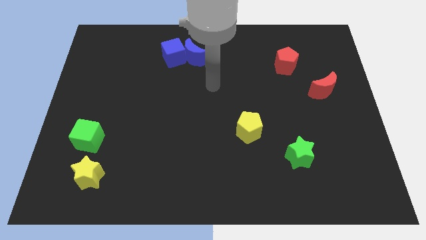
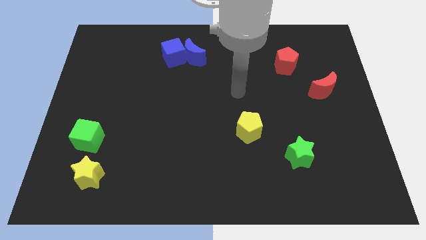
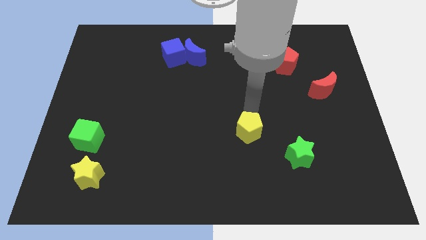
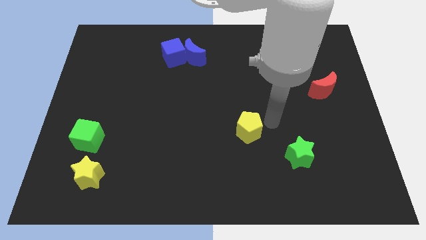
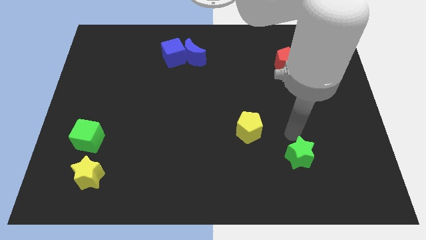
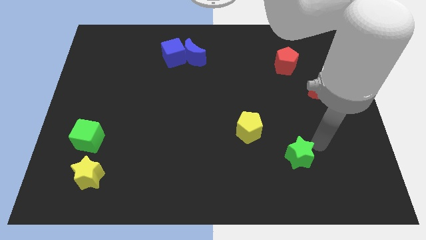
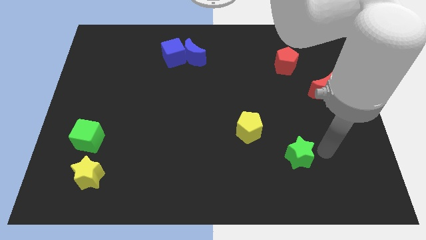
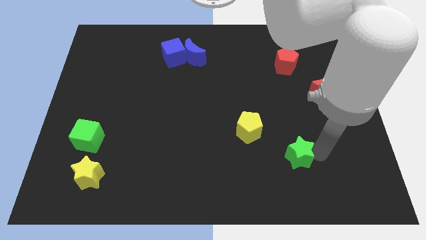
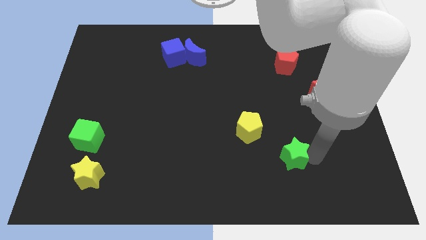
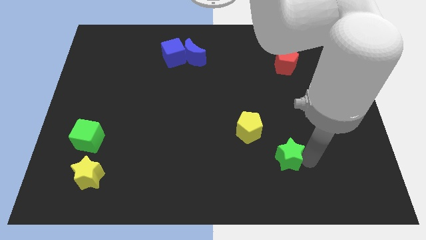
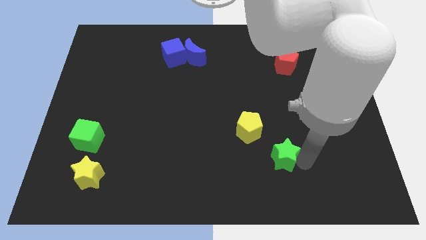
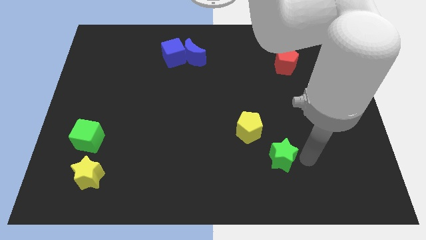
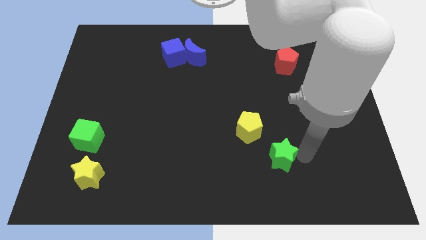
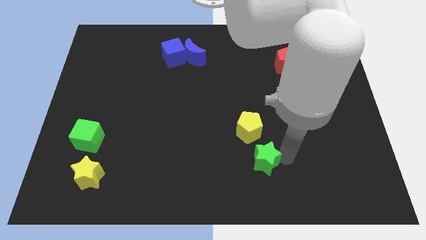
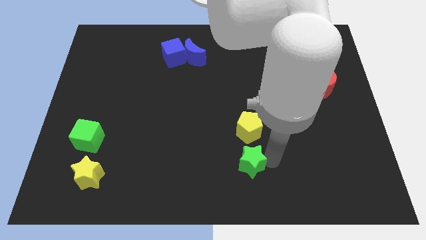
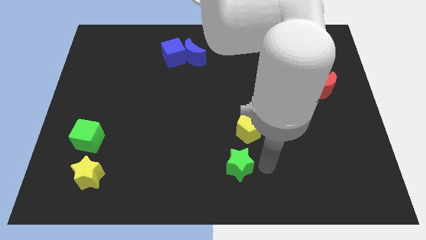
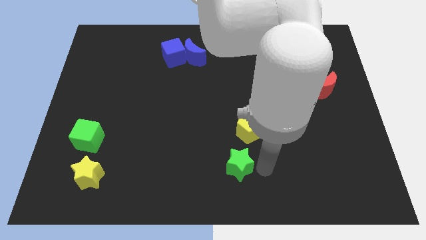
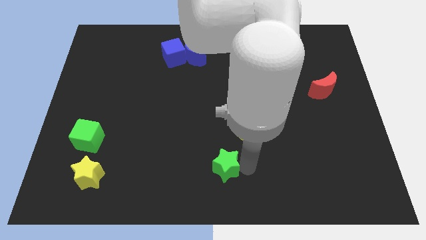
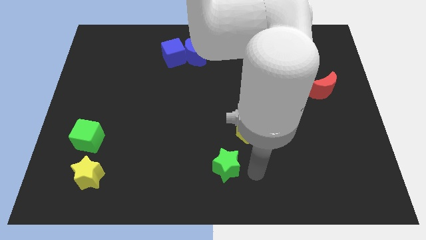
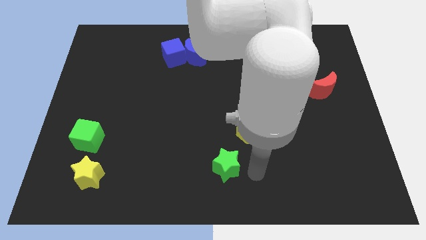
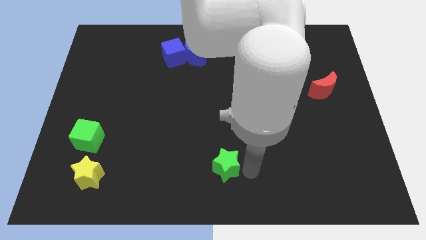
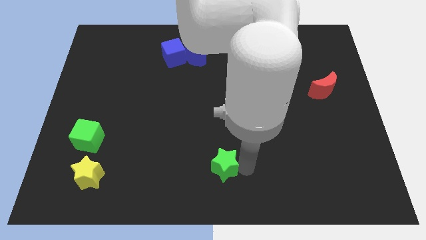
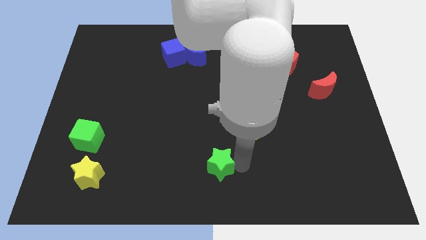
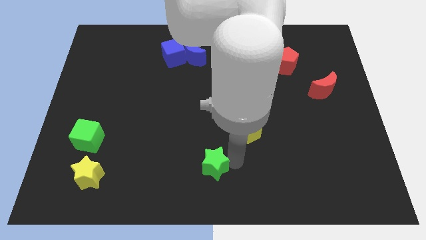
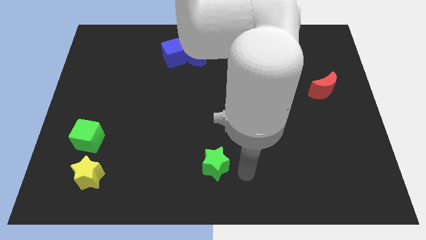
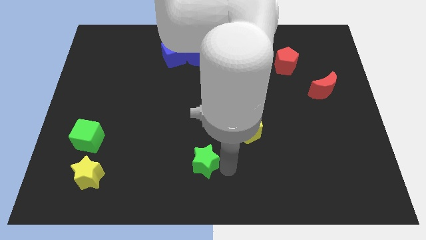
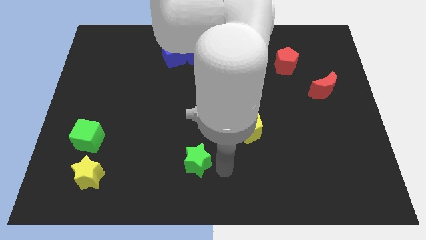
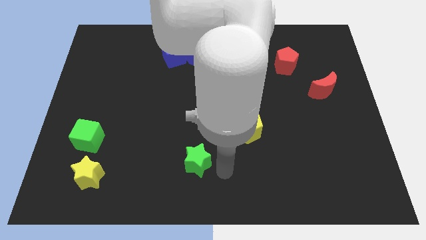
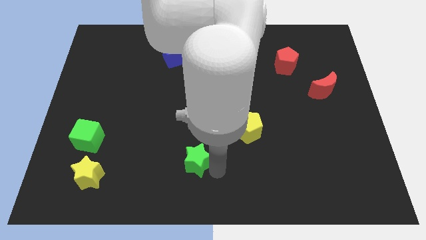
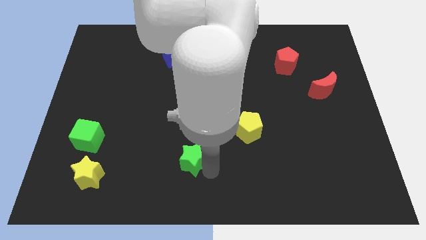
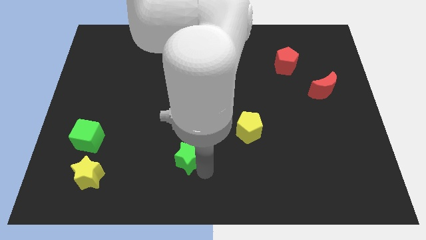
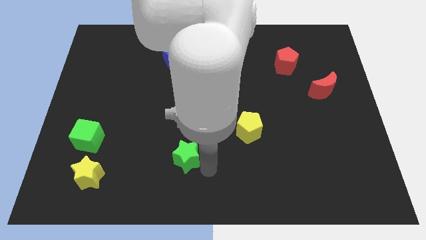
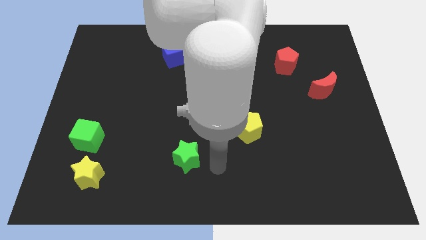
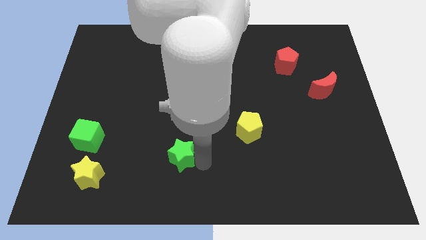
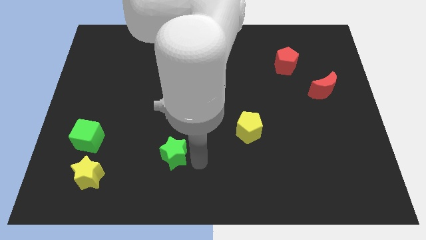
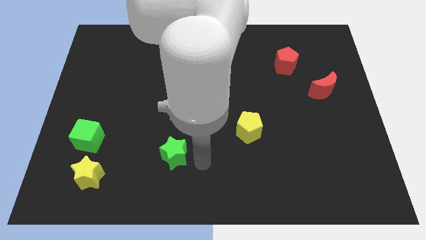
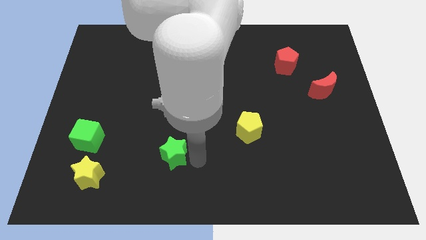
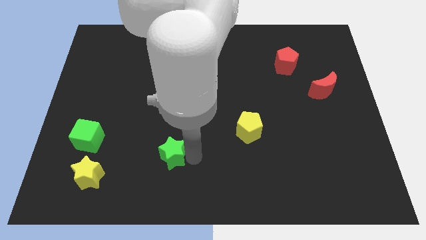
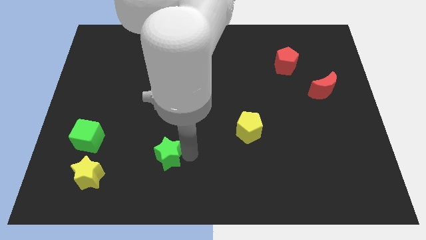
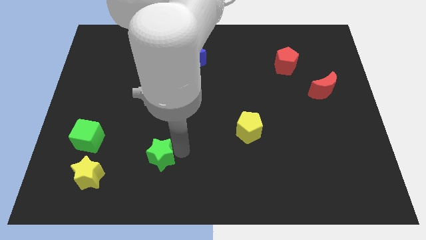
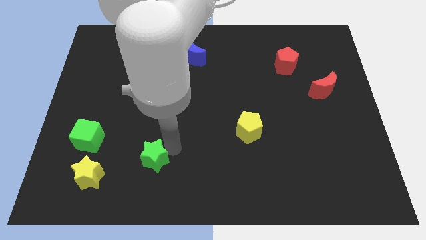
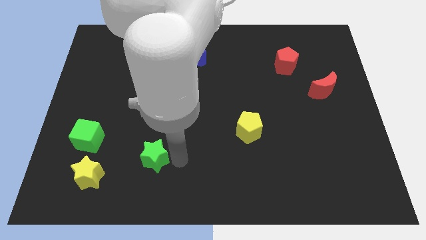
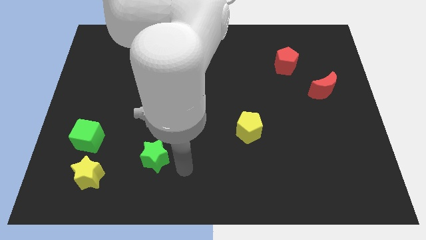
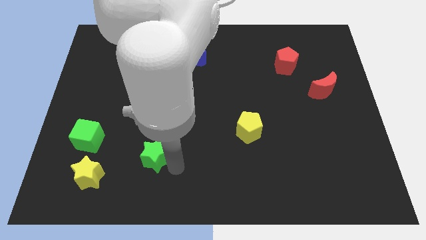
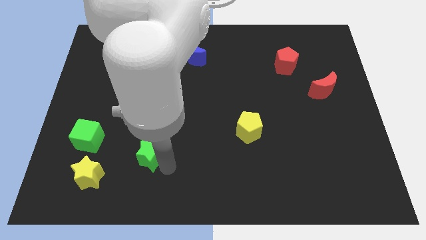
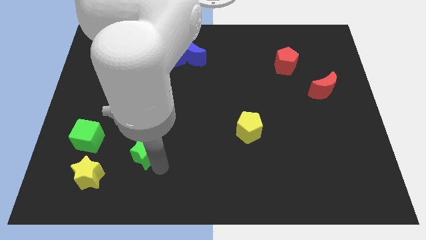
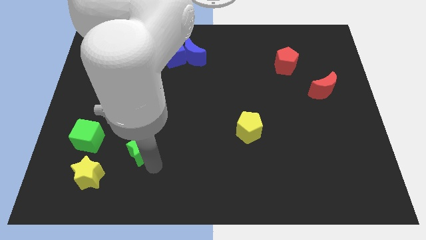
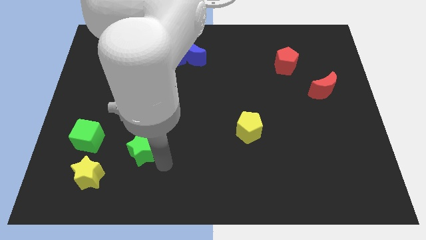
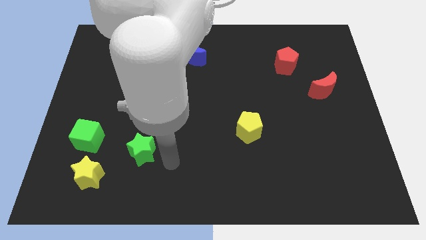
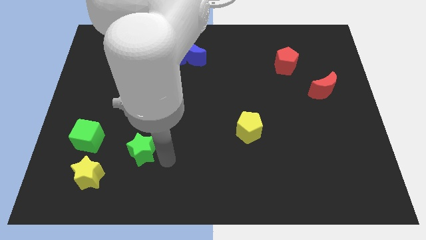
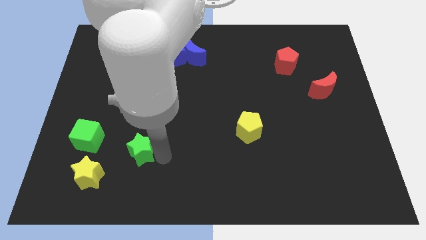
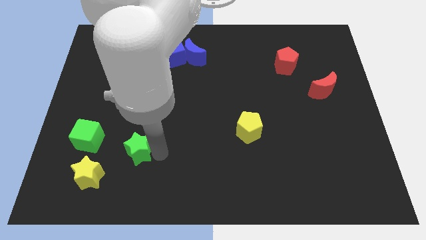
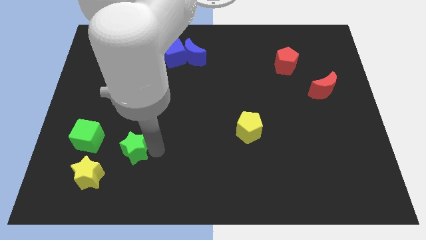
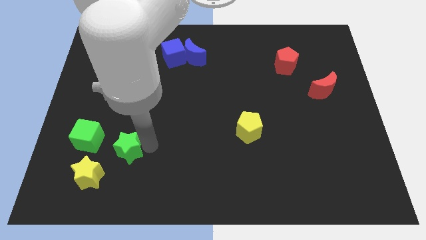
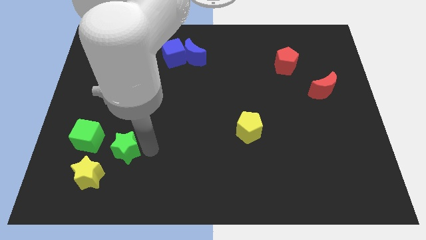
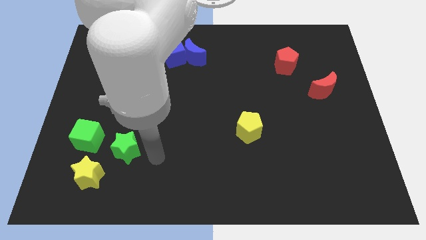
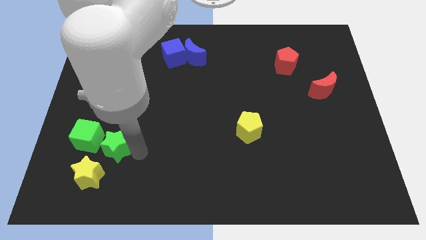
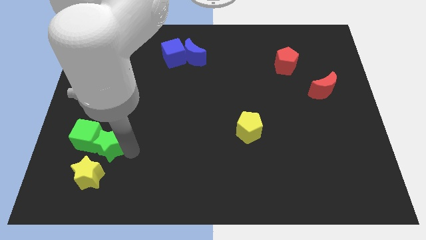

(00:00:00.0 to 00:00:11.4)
slide the green star towards the green cube
